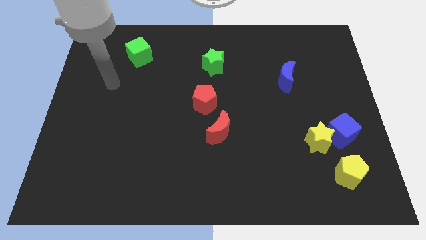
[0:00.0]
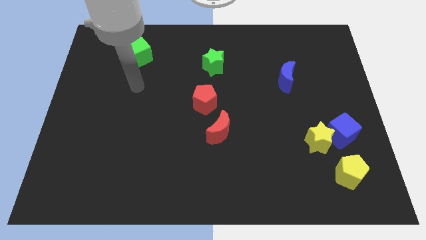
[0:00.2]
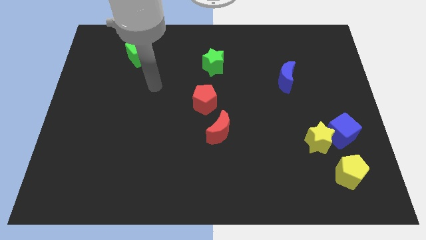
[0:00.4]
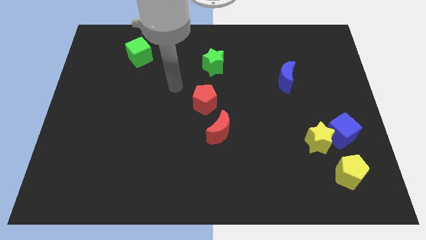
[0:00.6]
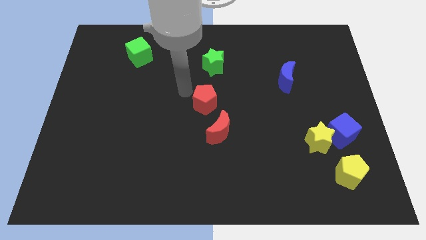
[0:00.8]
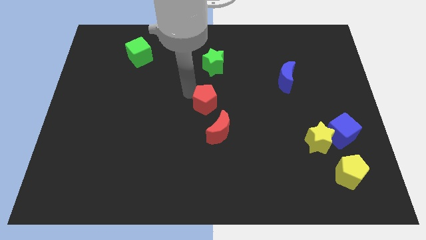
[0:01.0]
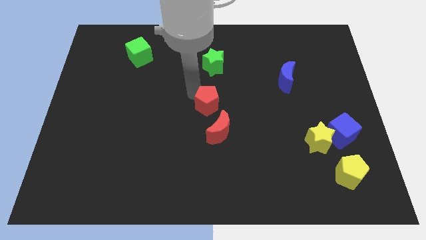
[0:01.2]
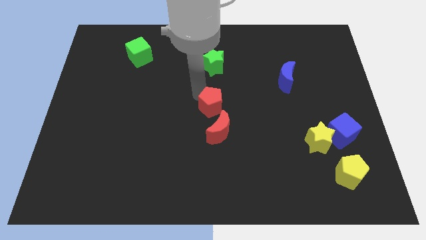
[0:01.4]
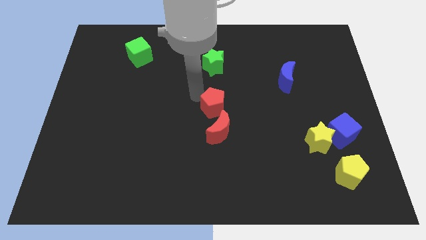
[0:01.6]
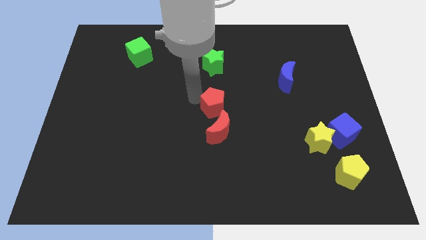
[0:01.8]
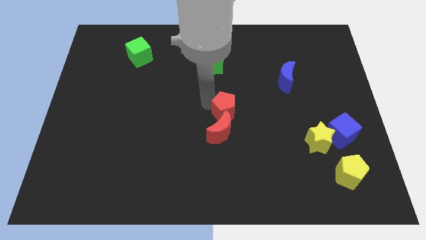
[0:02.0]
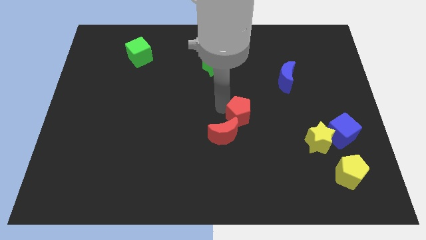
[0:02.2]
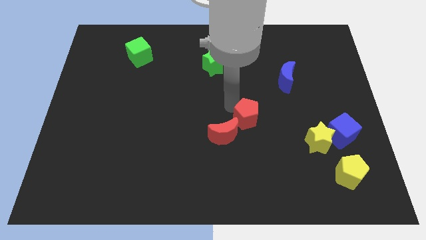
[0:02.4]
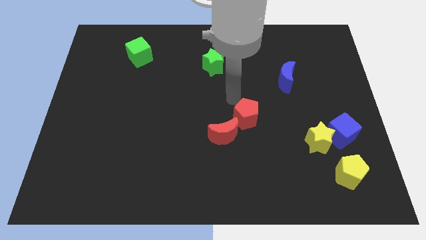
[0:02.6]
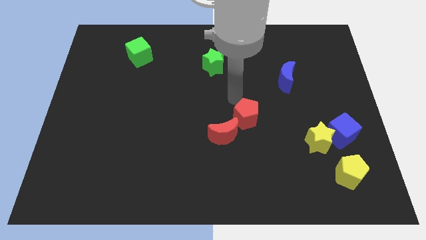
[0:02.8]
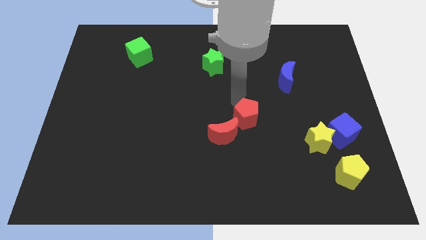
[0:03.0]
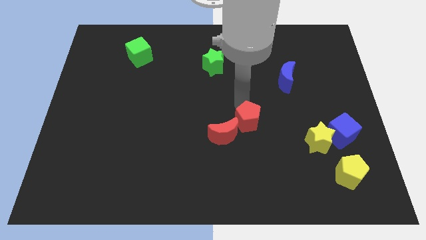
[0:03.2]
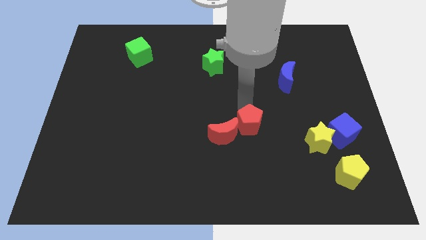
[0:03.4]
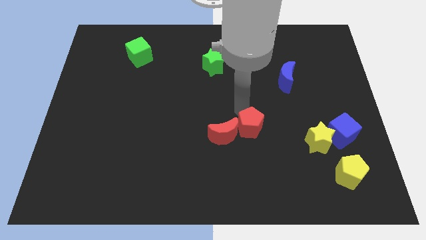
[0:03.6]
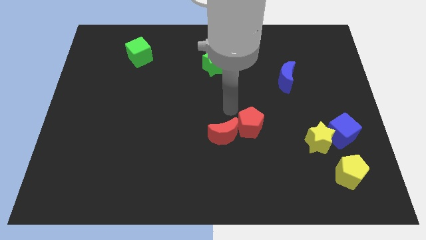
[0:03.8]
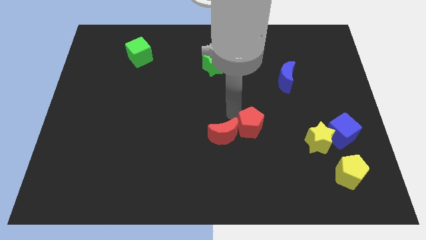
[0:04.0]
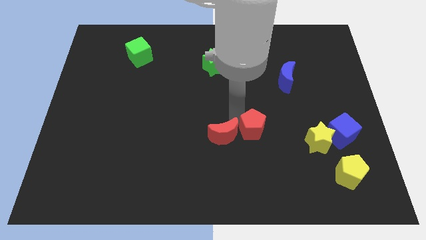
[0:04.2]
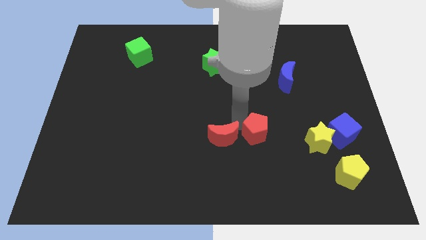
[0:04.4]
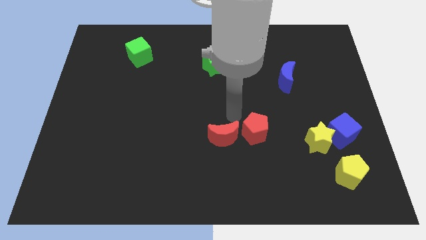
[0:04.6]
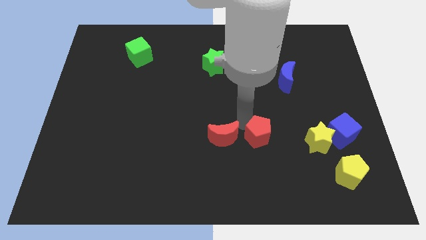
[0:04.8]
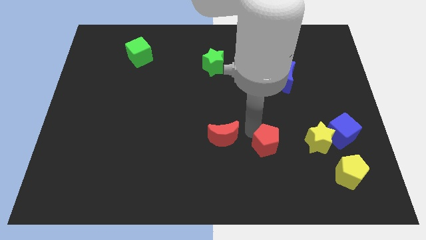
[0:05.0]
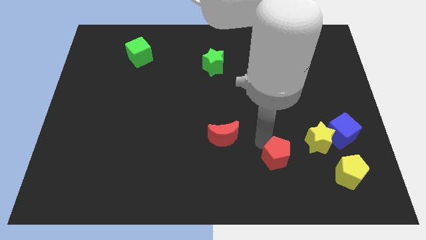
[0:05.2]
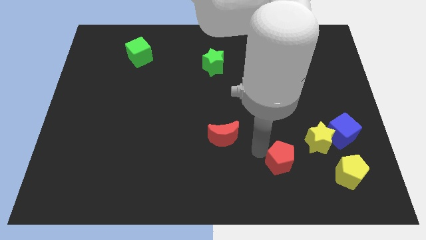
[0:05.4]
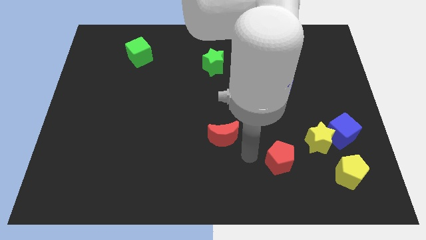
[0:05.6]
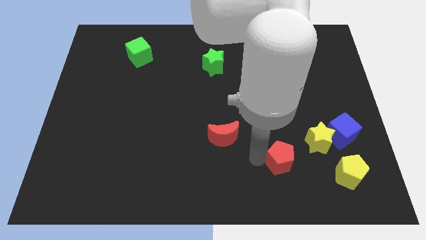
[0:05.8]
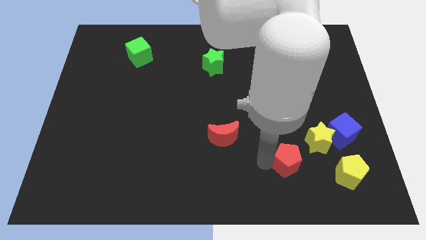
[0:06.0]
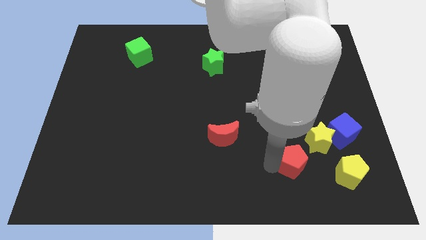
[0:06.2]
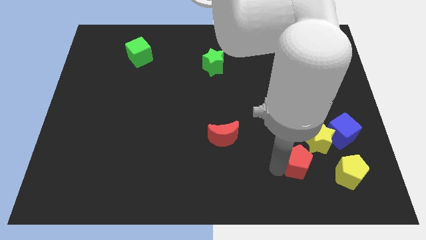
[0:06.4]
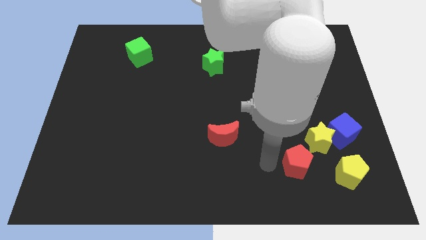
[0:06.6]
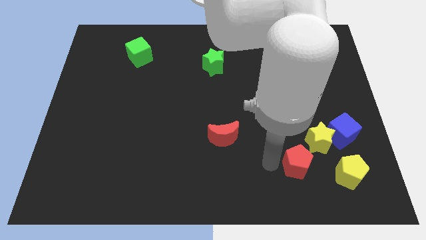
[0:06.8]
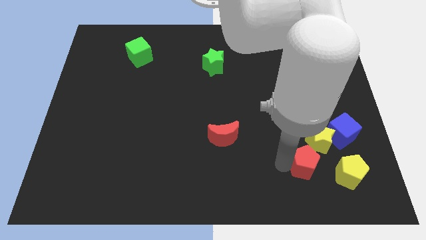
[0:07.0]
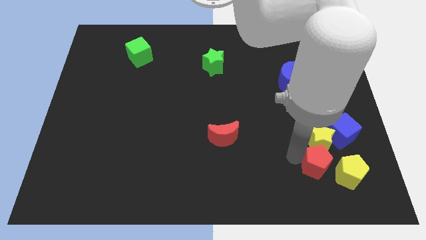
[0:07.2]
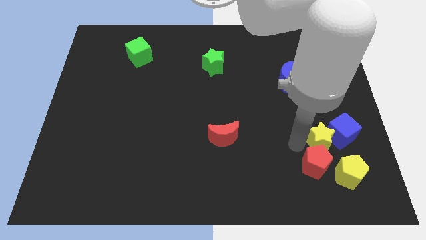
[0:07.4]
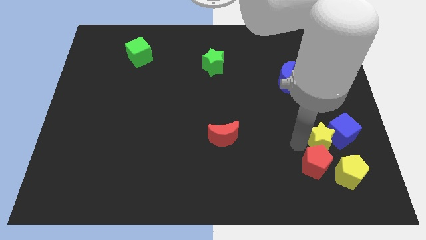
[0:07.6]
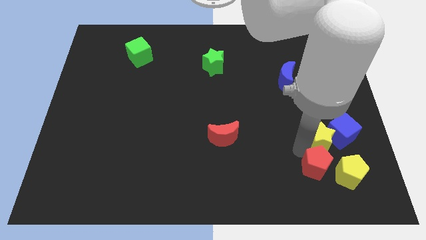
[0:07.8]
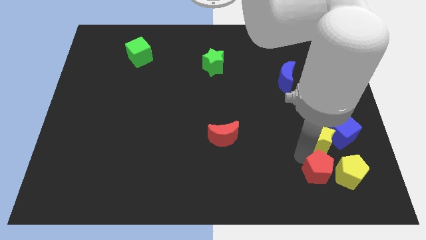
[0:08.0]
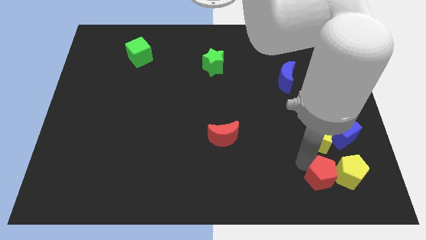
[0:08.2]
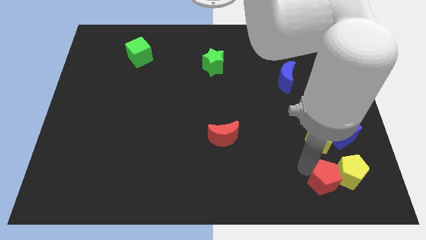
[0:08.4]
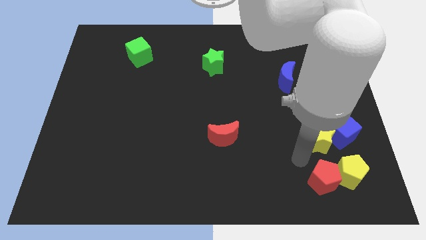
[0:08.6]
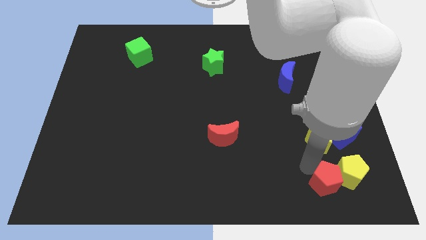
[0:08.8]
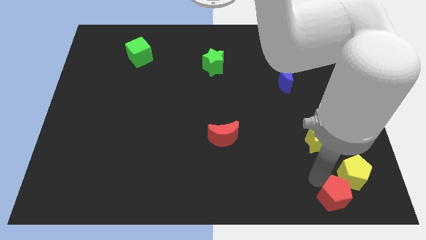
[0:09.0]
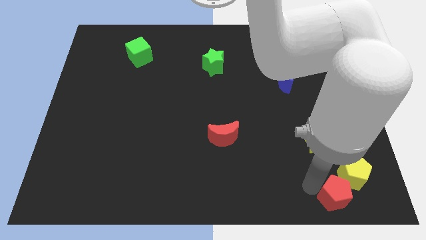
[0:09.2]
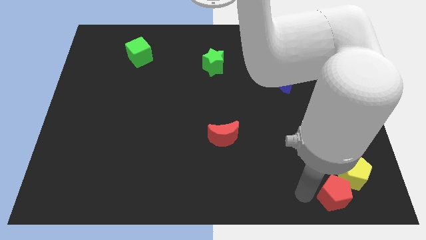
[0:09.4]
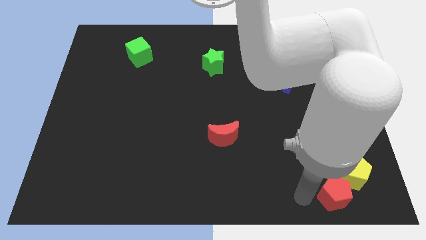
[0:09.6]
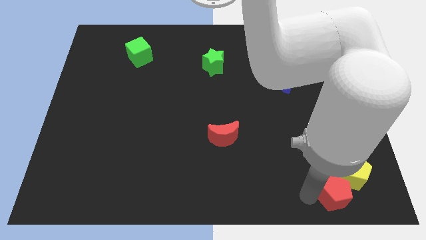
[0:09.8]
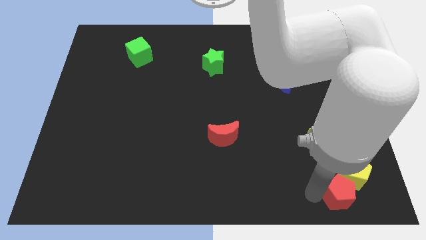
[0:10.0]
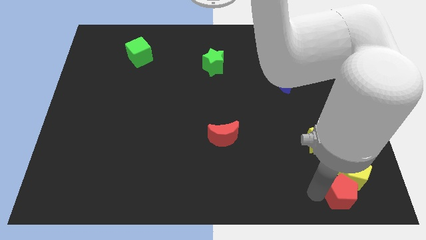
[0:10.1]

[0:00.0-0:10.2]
put the red pentagon to the bottom of the blue cube

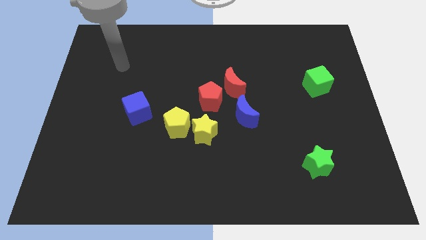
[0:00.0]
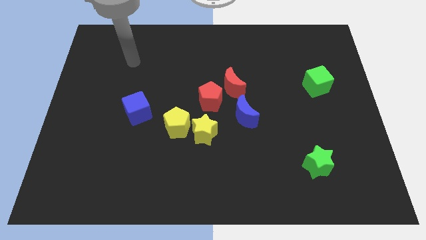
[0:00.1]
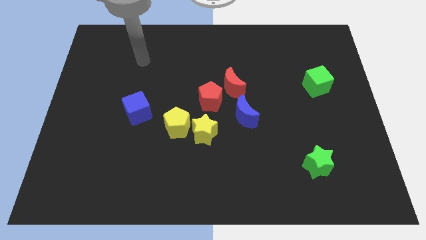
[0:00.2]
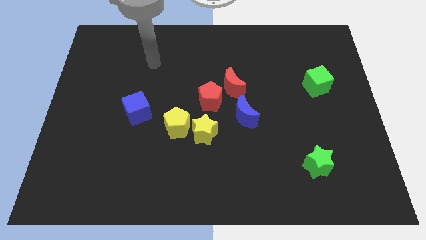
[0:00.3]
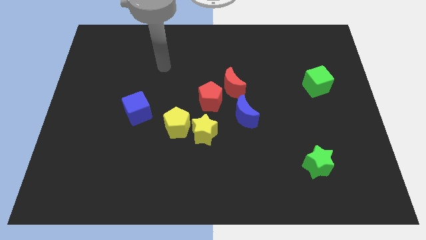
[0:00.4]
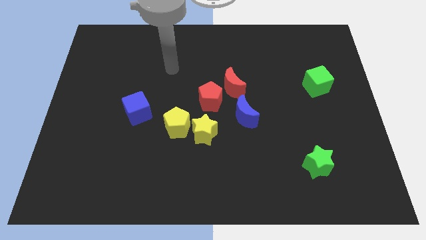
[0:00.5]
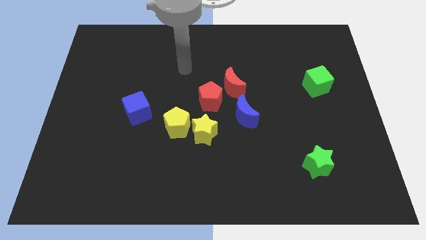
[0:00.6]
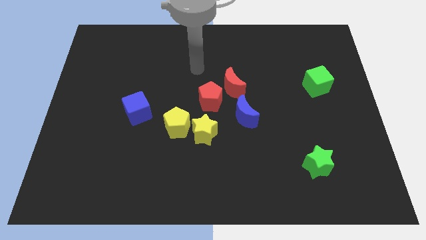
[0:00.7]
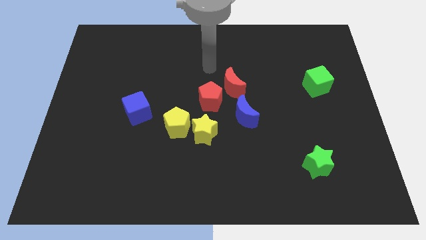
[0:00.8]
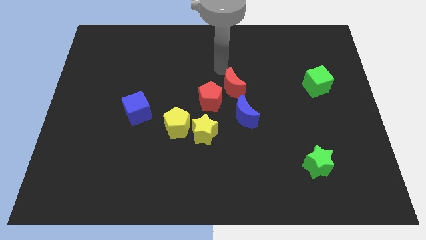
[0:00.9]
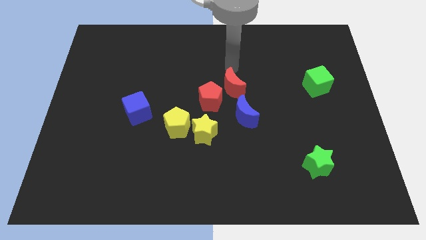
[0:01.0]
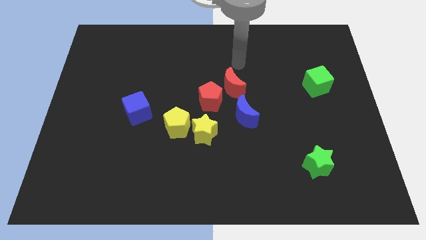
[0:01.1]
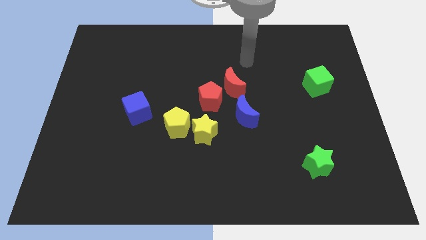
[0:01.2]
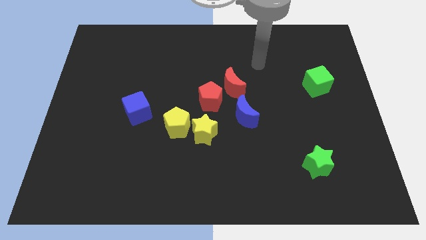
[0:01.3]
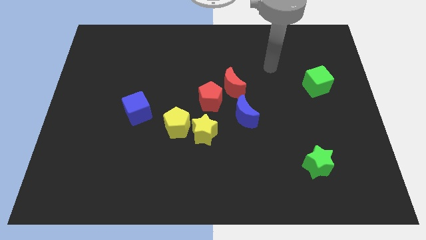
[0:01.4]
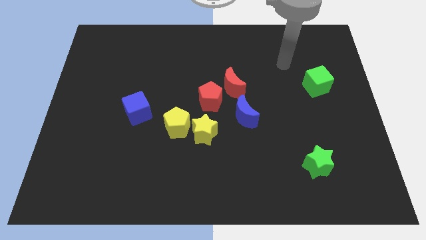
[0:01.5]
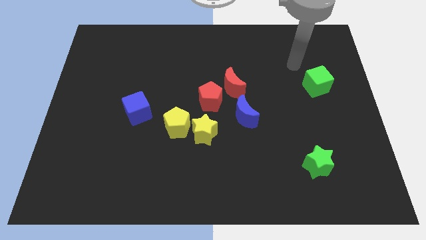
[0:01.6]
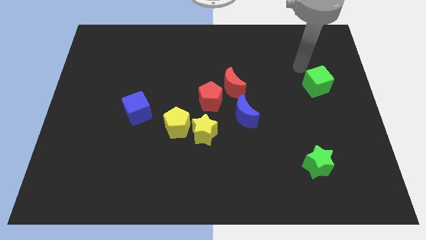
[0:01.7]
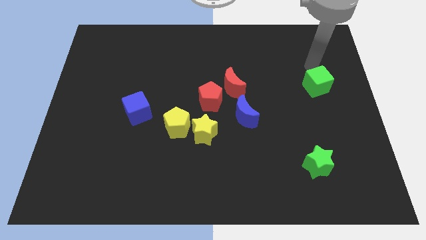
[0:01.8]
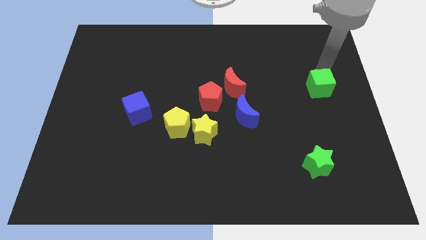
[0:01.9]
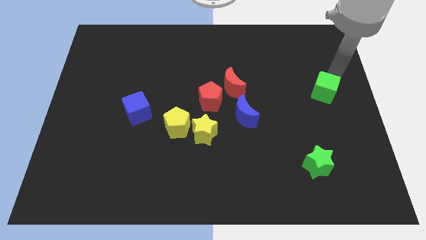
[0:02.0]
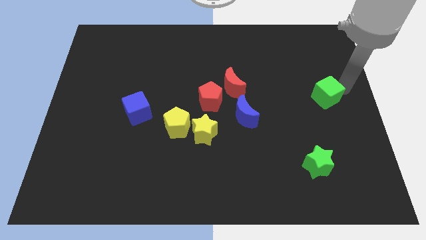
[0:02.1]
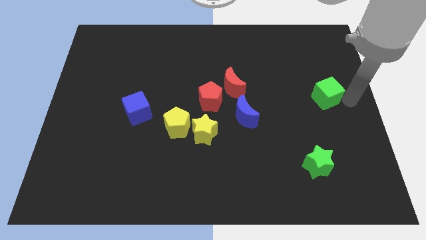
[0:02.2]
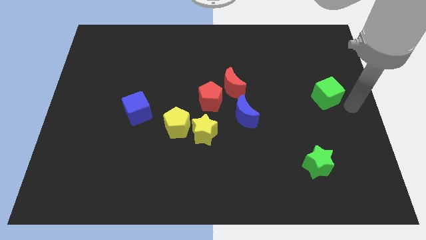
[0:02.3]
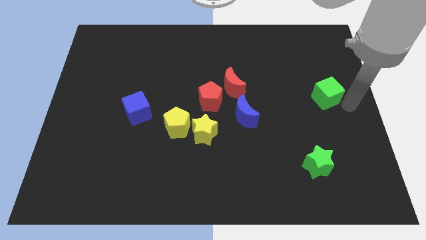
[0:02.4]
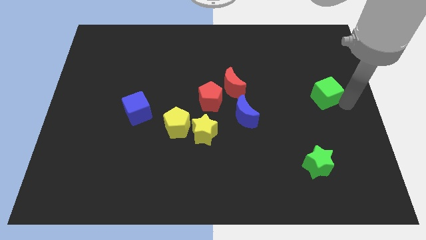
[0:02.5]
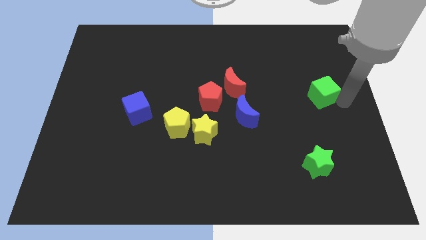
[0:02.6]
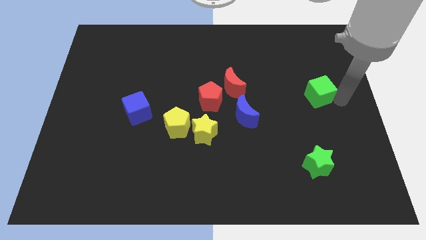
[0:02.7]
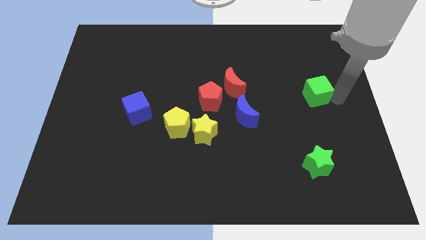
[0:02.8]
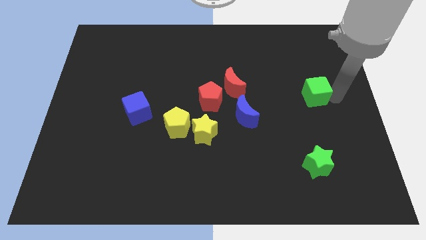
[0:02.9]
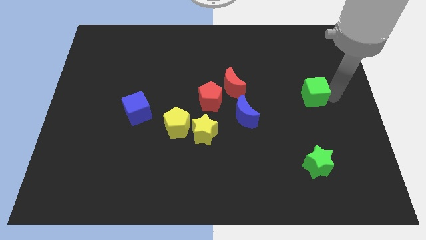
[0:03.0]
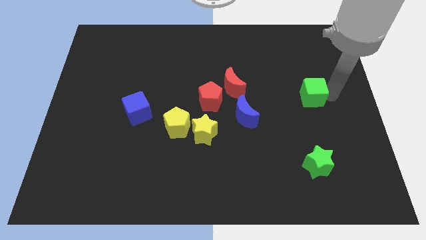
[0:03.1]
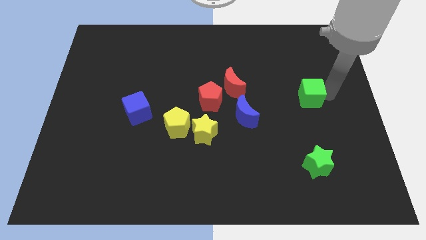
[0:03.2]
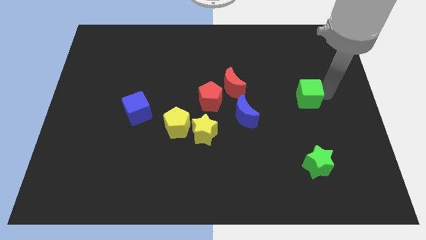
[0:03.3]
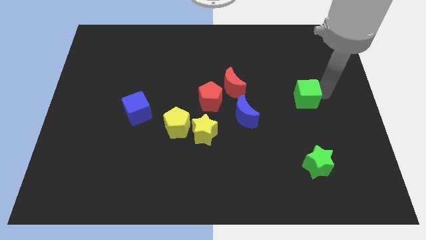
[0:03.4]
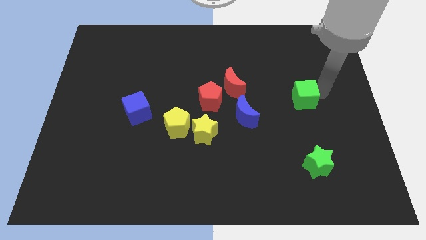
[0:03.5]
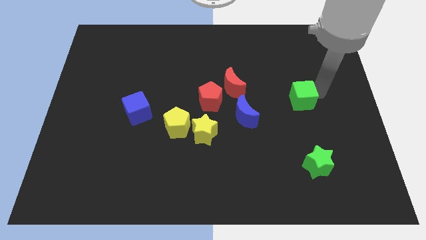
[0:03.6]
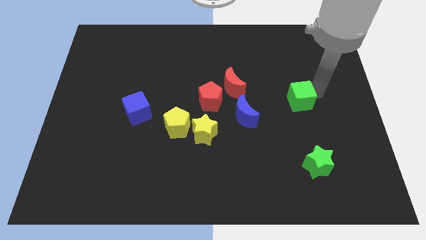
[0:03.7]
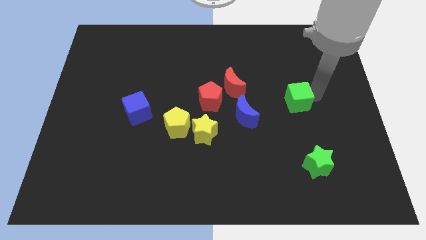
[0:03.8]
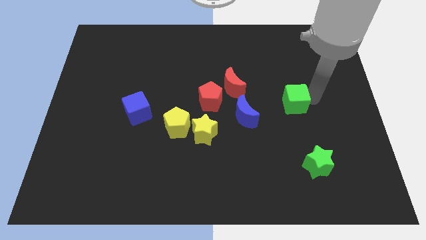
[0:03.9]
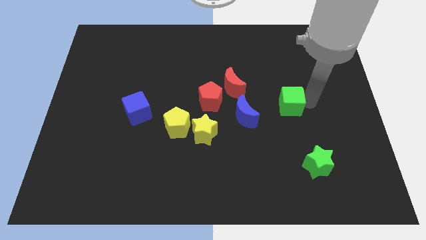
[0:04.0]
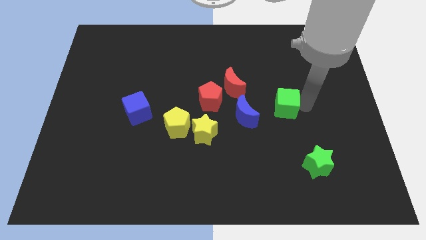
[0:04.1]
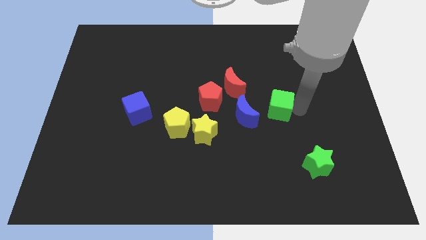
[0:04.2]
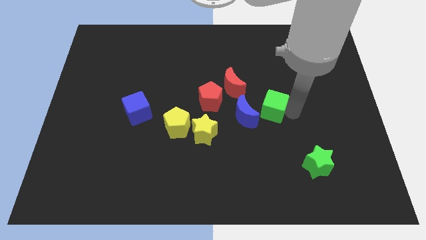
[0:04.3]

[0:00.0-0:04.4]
move the green cube to the right side of the red pentagon
